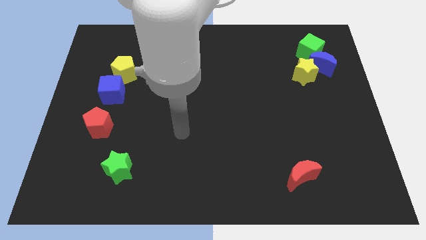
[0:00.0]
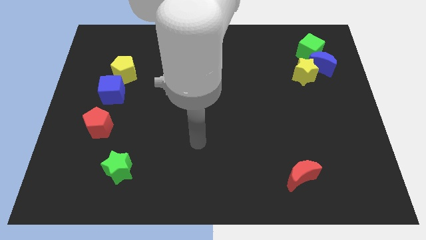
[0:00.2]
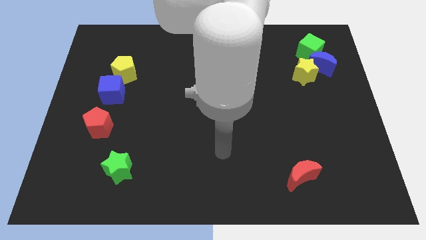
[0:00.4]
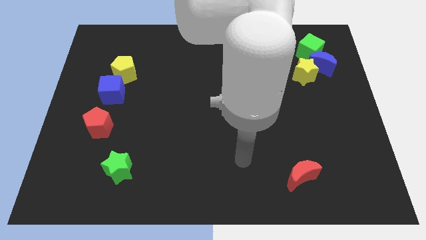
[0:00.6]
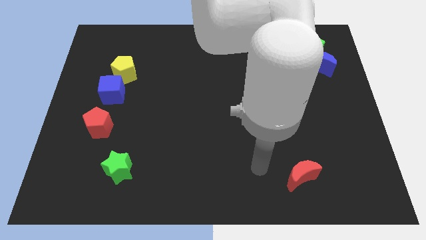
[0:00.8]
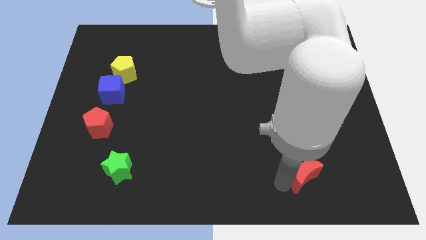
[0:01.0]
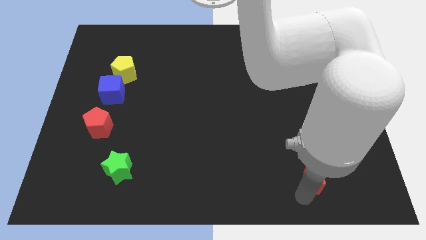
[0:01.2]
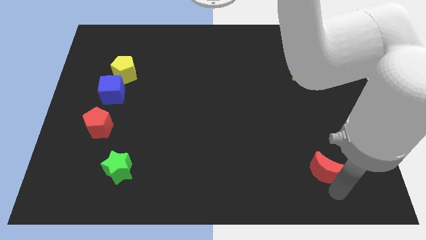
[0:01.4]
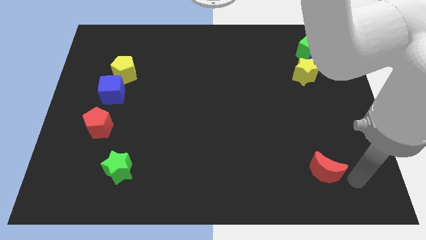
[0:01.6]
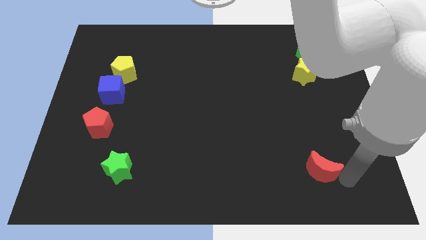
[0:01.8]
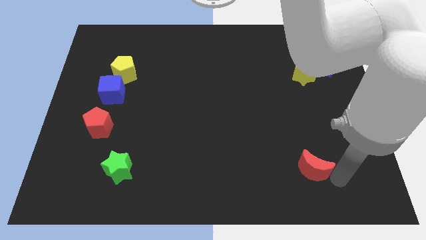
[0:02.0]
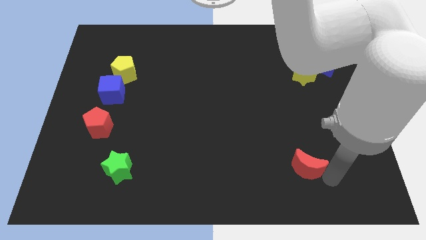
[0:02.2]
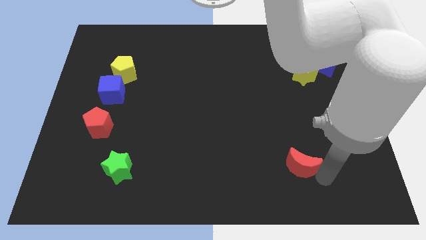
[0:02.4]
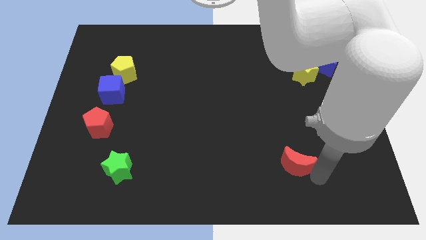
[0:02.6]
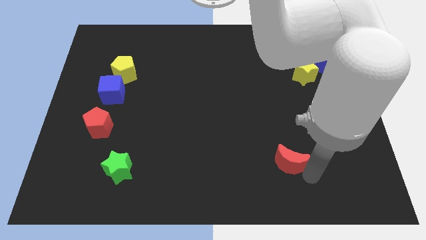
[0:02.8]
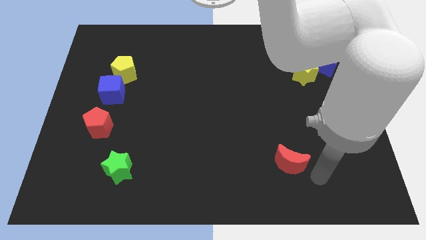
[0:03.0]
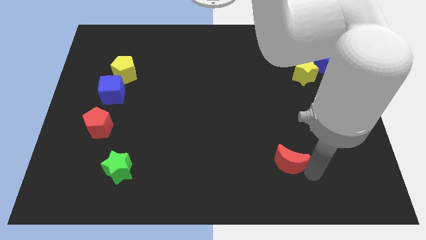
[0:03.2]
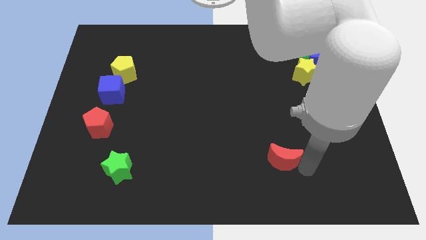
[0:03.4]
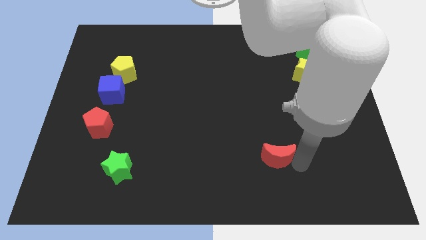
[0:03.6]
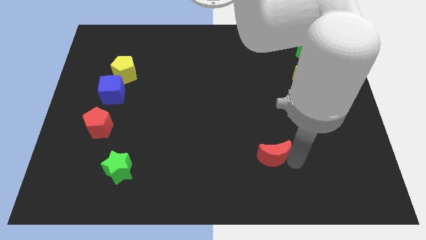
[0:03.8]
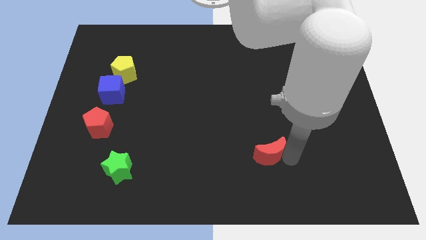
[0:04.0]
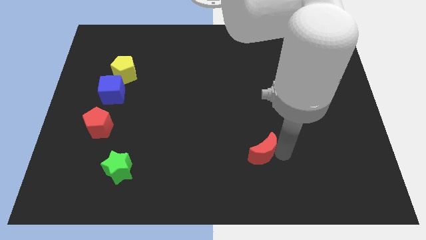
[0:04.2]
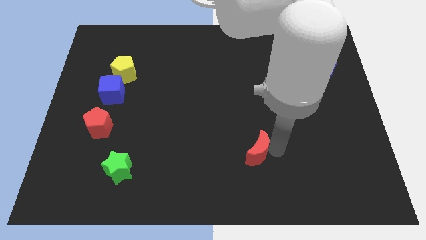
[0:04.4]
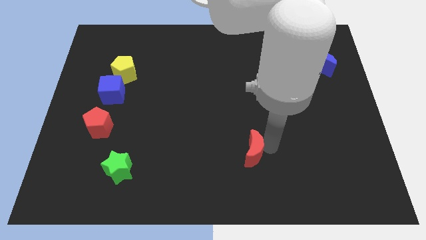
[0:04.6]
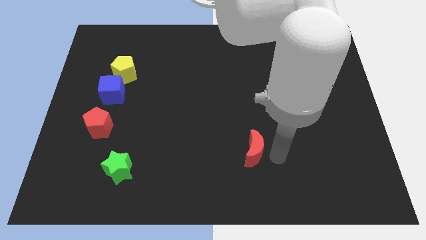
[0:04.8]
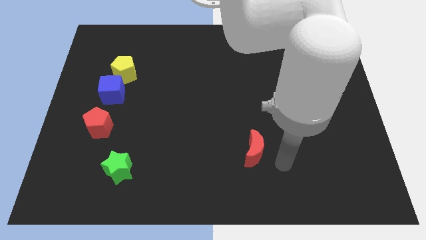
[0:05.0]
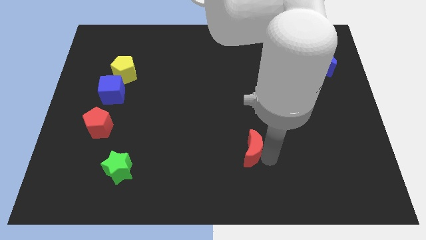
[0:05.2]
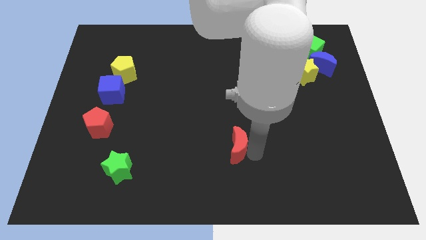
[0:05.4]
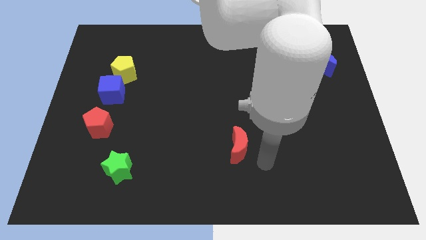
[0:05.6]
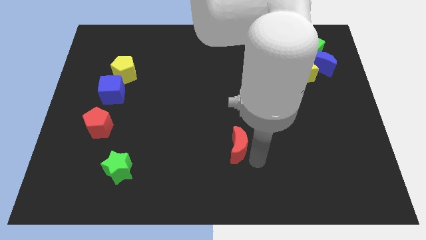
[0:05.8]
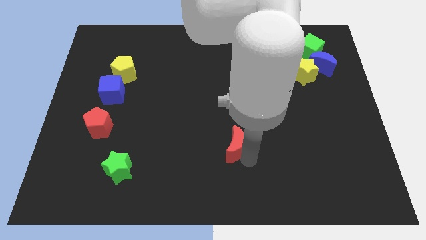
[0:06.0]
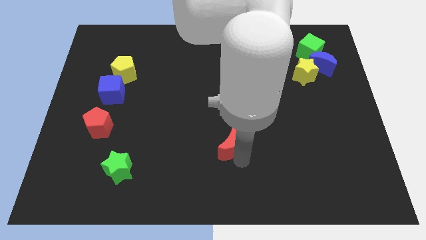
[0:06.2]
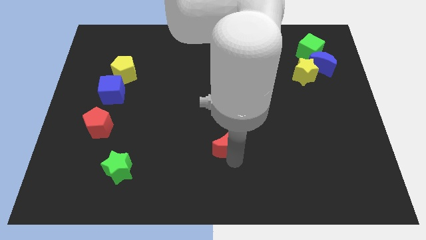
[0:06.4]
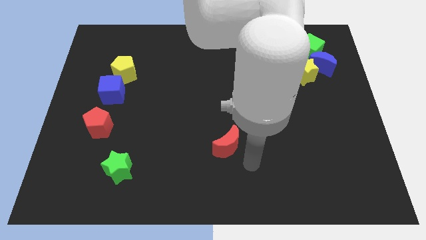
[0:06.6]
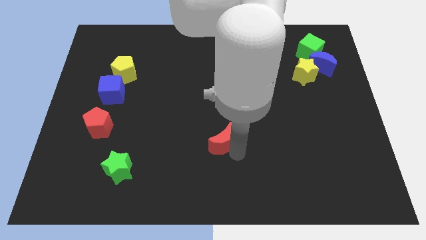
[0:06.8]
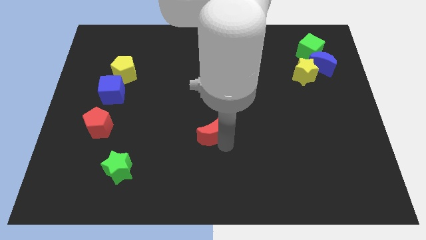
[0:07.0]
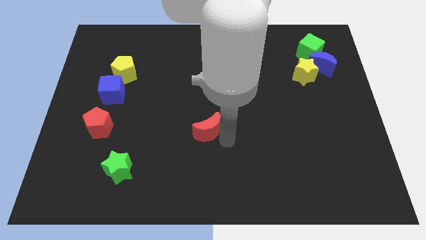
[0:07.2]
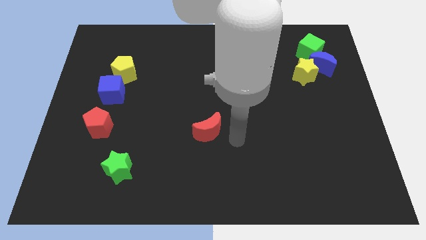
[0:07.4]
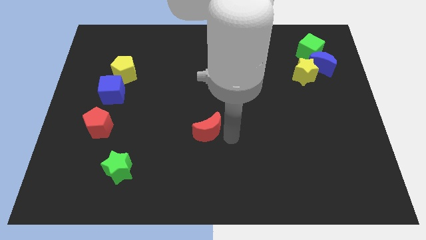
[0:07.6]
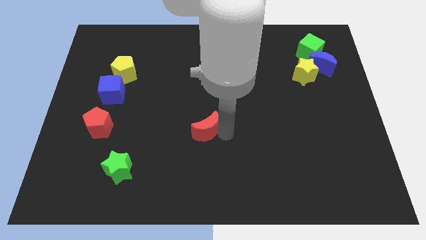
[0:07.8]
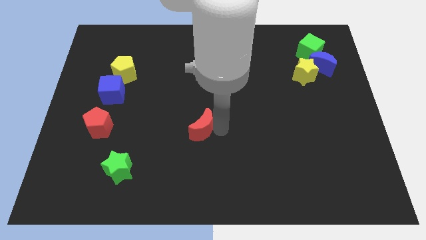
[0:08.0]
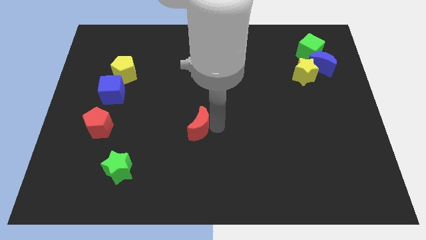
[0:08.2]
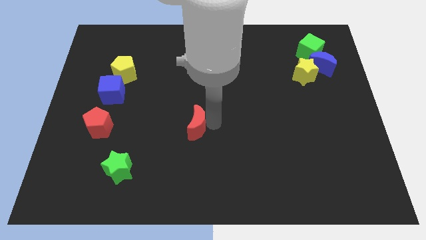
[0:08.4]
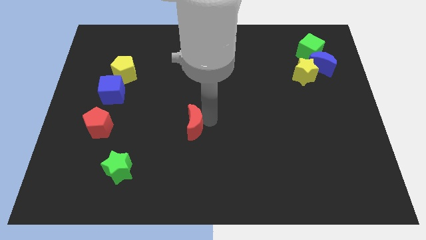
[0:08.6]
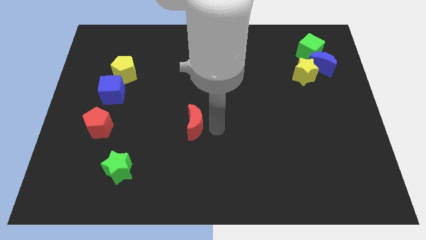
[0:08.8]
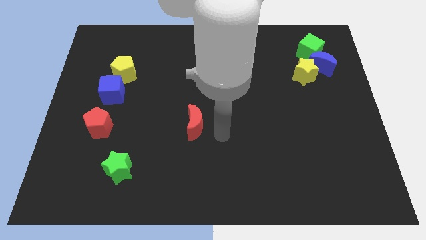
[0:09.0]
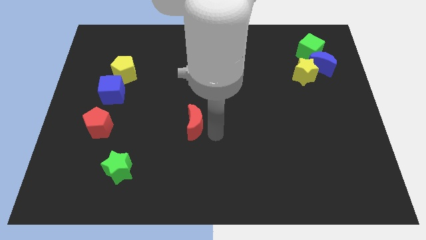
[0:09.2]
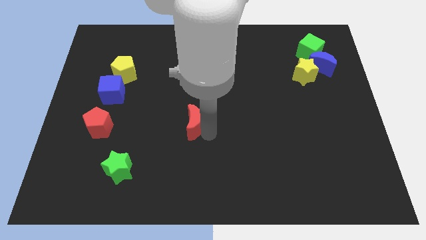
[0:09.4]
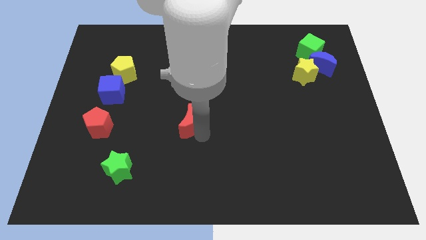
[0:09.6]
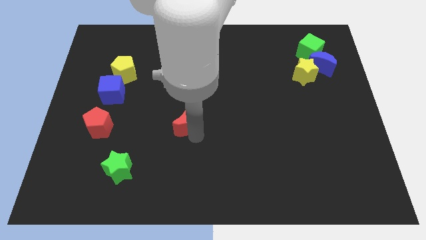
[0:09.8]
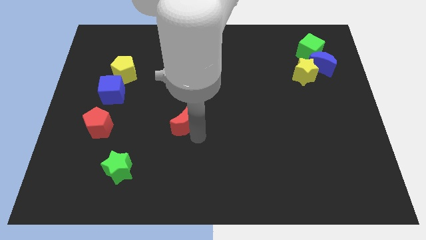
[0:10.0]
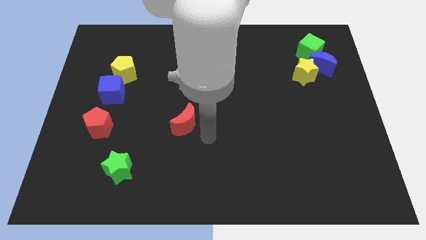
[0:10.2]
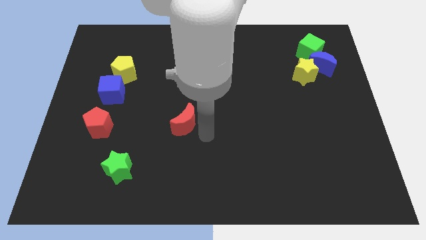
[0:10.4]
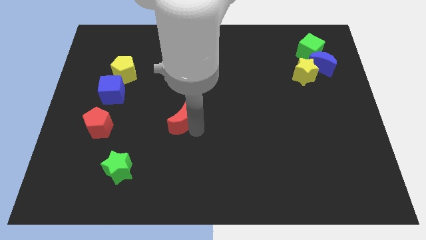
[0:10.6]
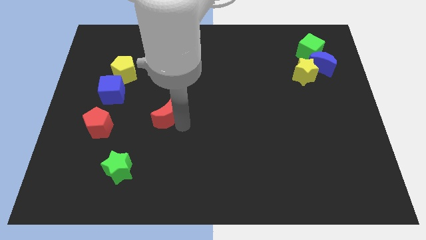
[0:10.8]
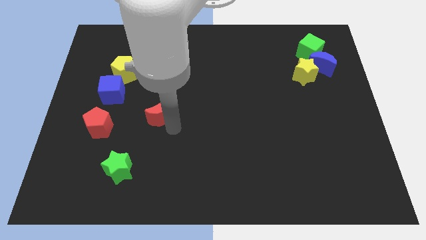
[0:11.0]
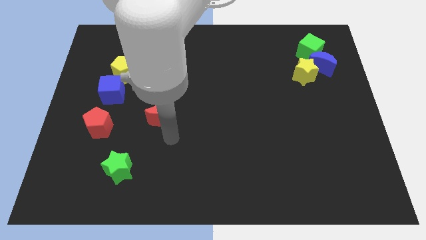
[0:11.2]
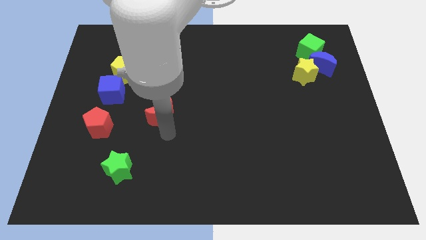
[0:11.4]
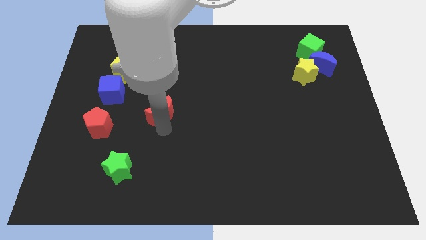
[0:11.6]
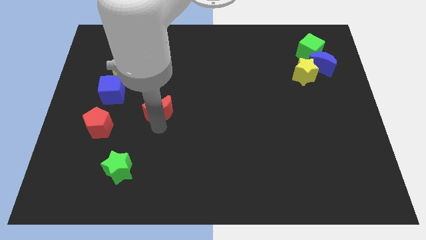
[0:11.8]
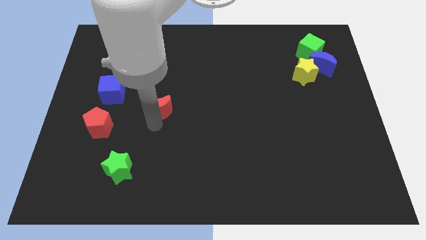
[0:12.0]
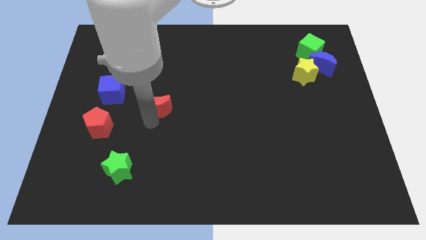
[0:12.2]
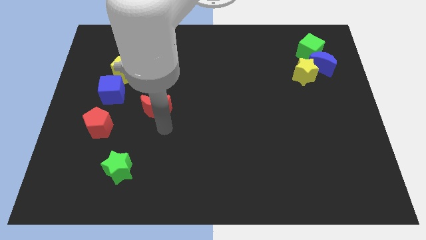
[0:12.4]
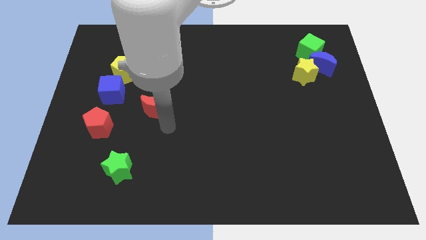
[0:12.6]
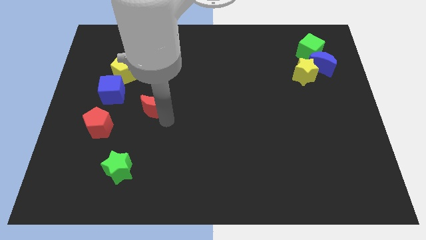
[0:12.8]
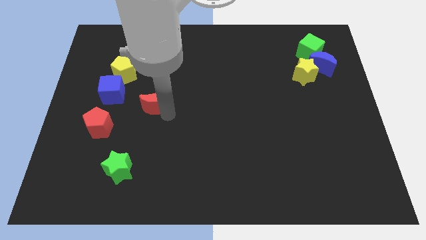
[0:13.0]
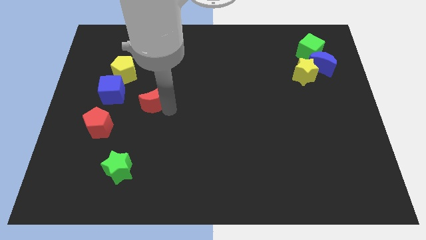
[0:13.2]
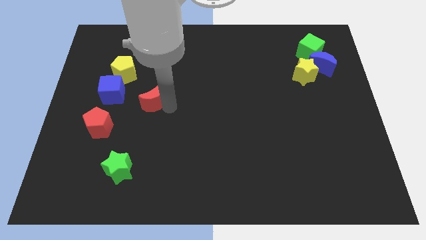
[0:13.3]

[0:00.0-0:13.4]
put the red moon diagonally down and to the right of the yellow pentagon
